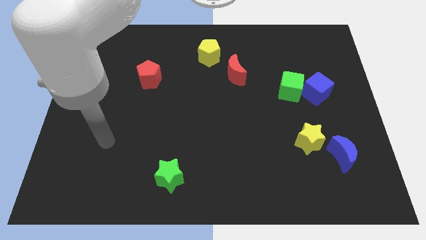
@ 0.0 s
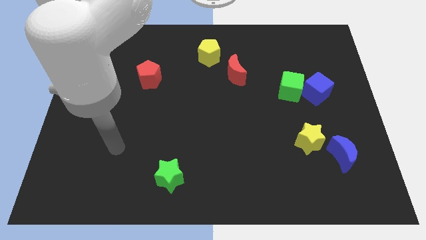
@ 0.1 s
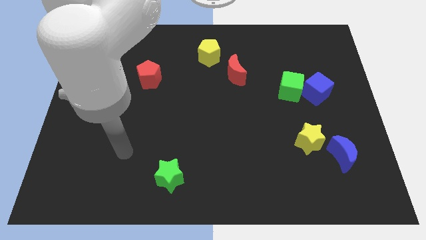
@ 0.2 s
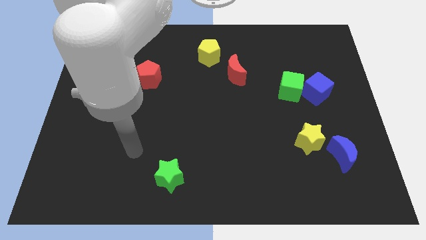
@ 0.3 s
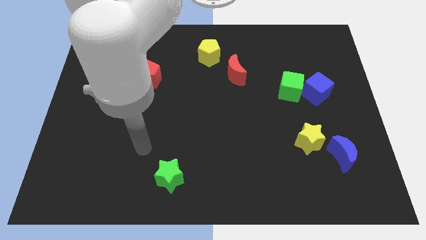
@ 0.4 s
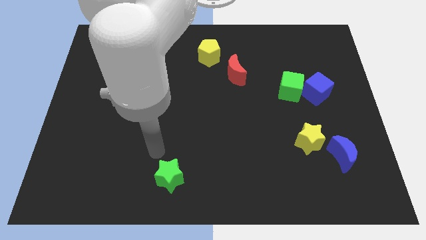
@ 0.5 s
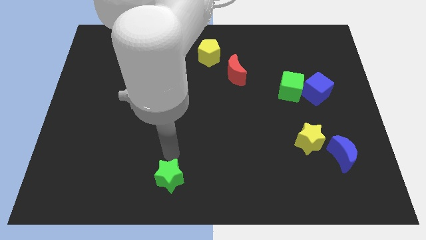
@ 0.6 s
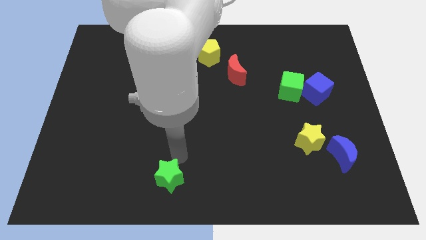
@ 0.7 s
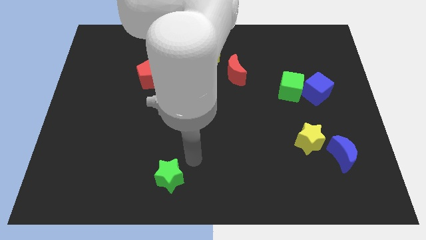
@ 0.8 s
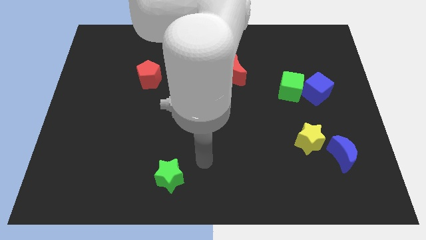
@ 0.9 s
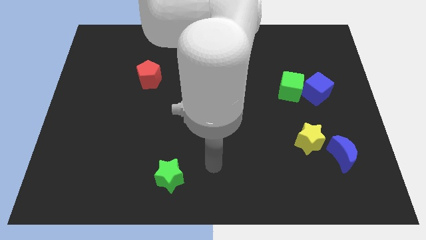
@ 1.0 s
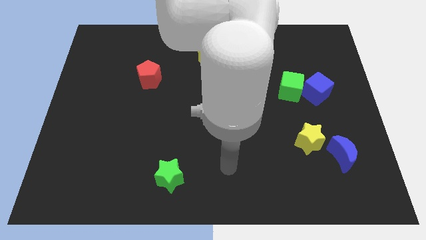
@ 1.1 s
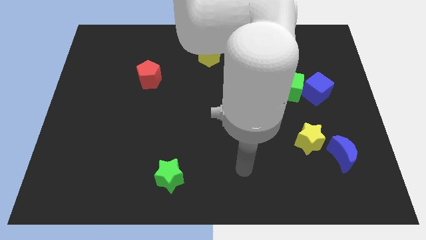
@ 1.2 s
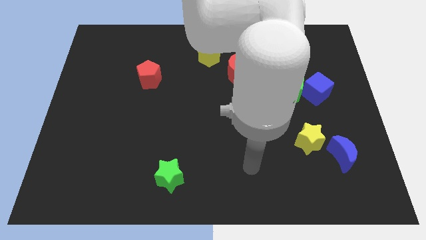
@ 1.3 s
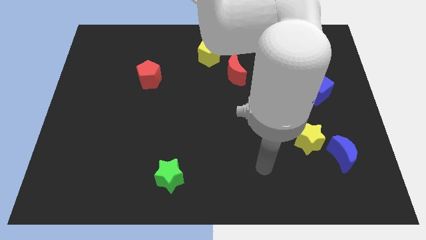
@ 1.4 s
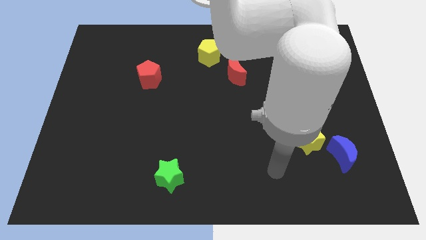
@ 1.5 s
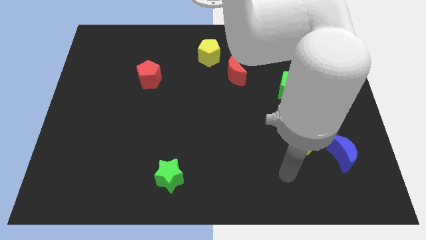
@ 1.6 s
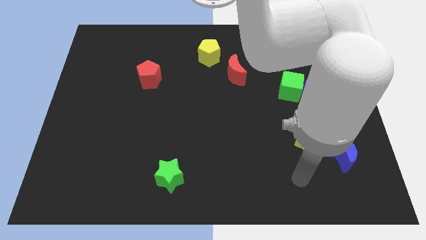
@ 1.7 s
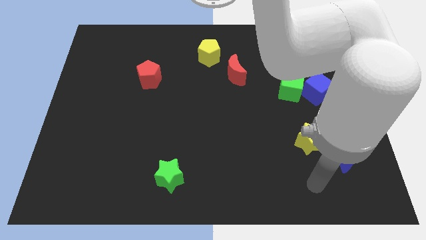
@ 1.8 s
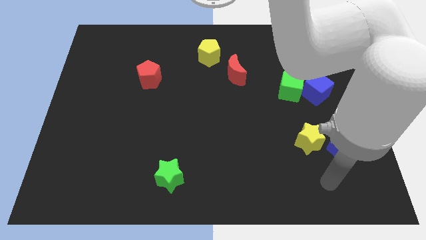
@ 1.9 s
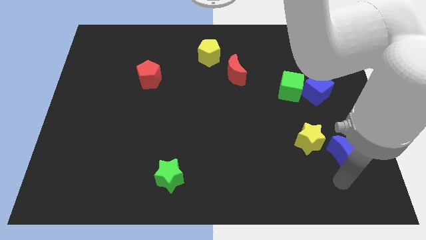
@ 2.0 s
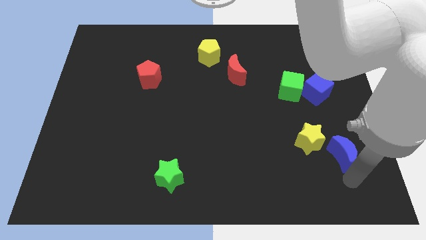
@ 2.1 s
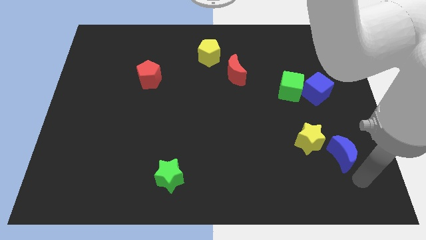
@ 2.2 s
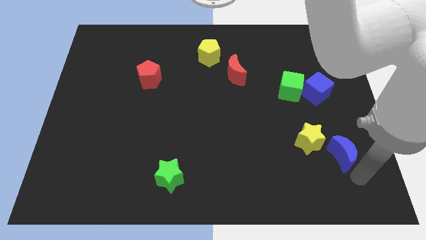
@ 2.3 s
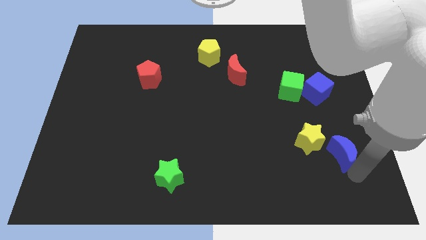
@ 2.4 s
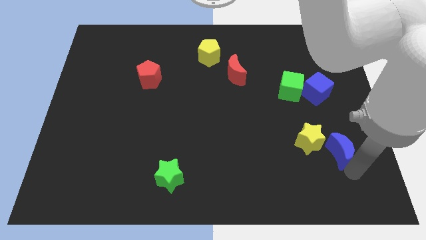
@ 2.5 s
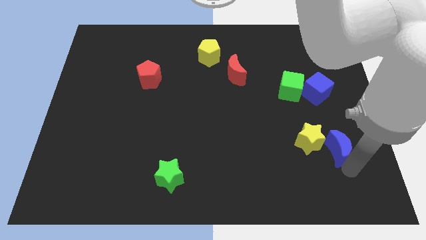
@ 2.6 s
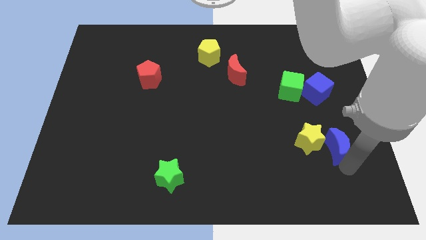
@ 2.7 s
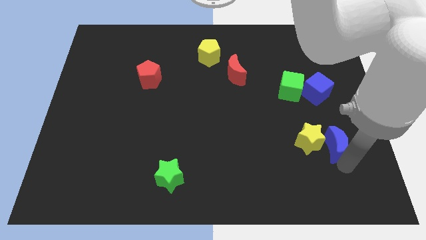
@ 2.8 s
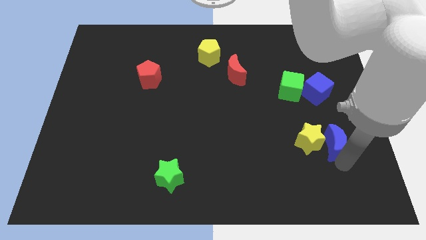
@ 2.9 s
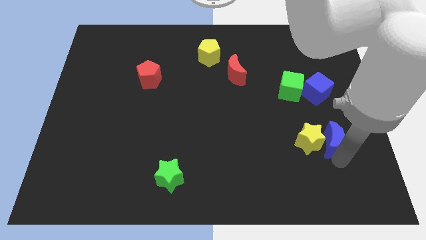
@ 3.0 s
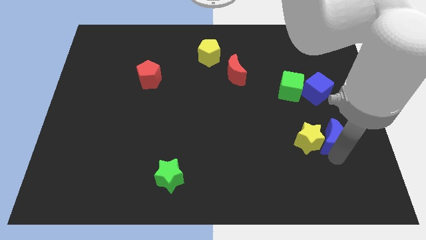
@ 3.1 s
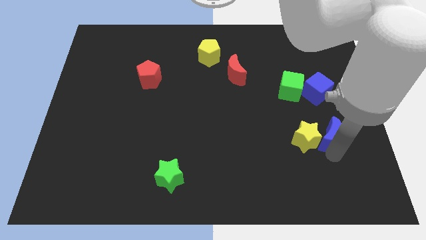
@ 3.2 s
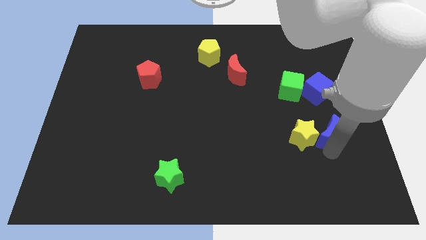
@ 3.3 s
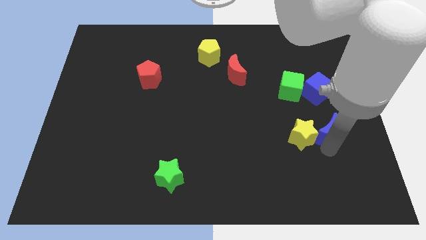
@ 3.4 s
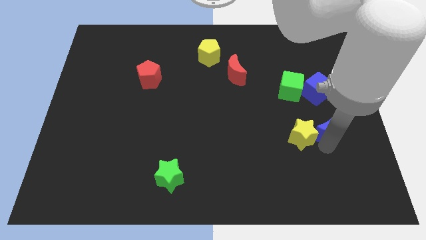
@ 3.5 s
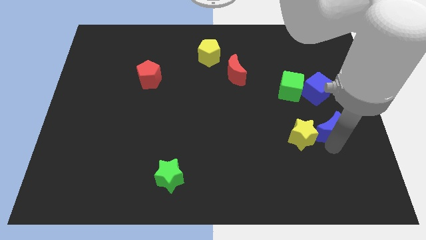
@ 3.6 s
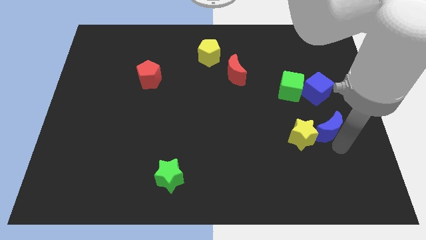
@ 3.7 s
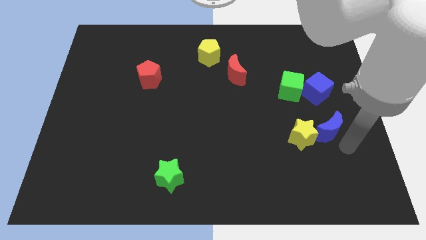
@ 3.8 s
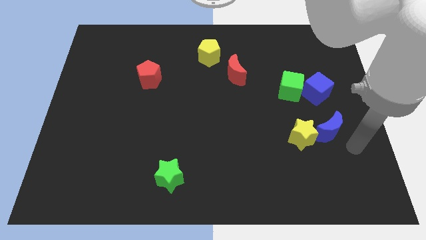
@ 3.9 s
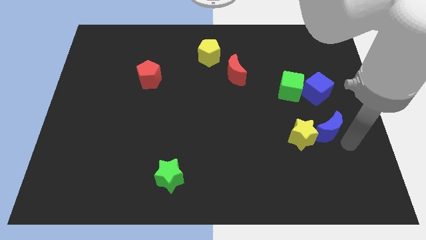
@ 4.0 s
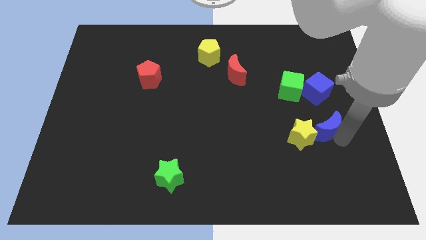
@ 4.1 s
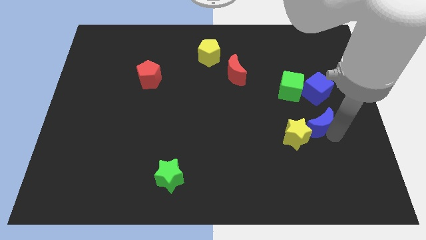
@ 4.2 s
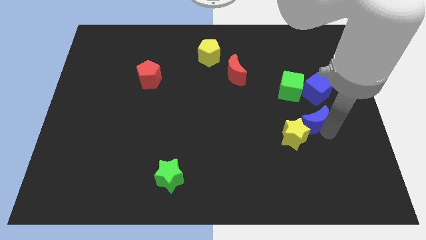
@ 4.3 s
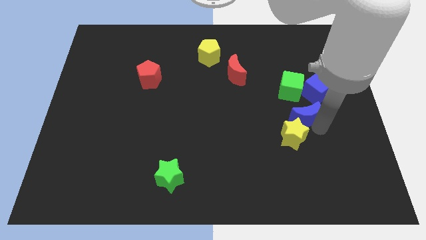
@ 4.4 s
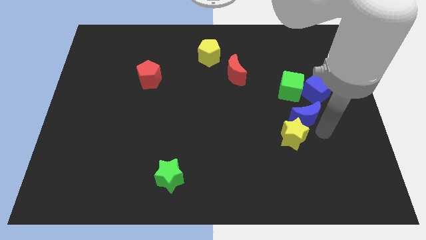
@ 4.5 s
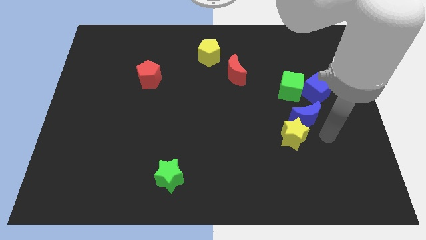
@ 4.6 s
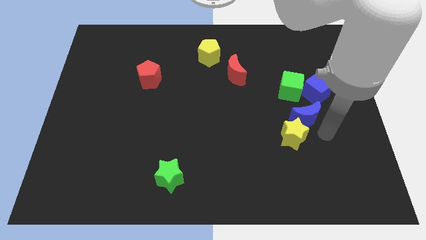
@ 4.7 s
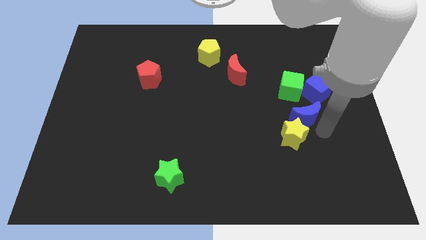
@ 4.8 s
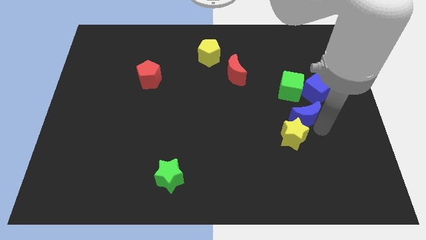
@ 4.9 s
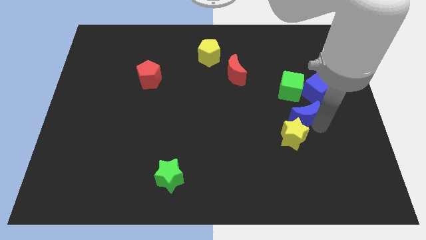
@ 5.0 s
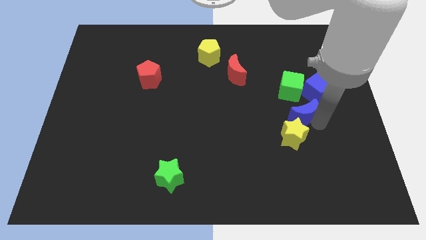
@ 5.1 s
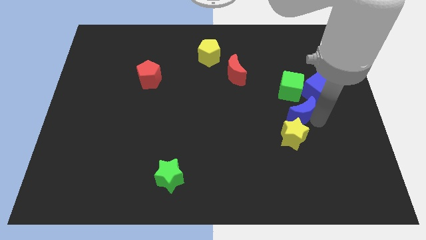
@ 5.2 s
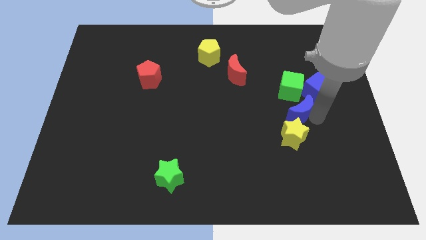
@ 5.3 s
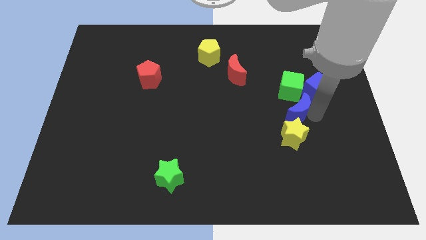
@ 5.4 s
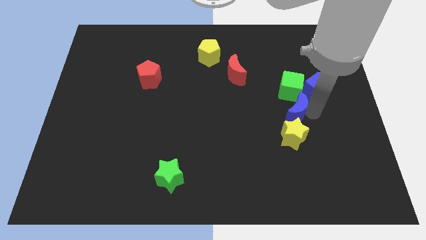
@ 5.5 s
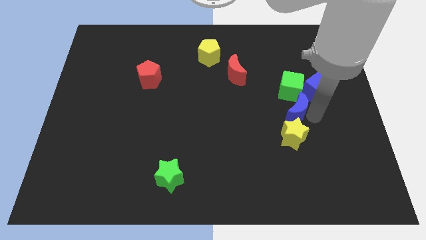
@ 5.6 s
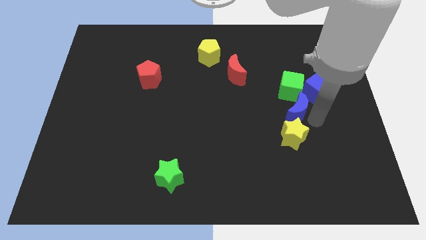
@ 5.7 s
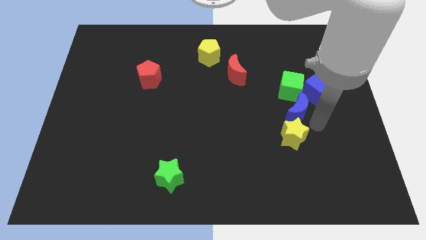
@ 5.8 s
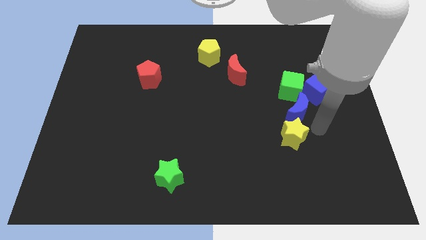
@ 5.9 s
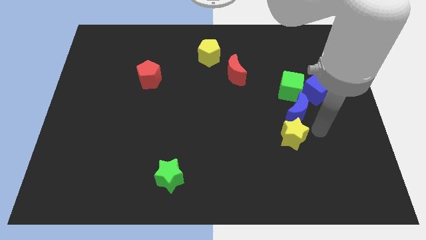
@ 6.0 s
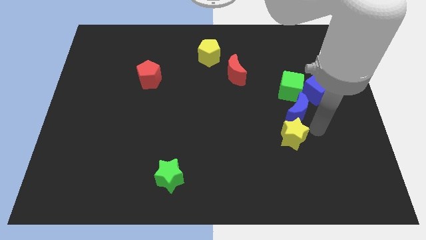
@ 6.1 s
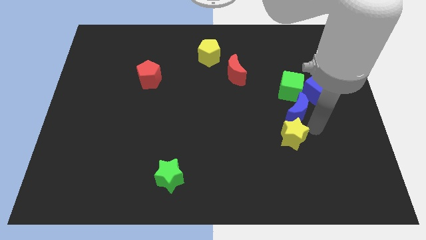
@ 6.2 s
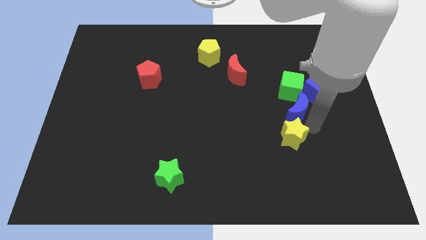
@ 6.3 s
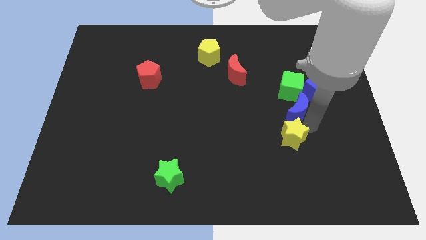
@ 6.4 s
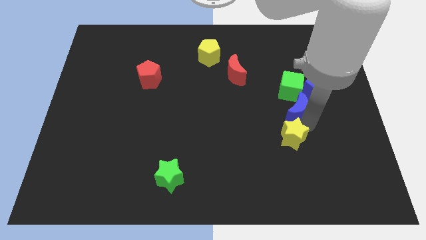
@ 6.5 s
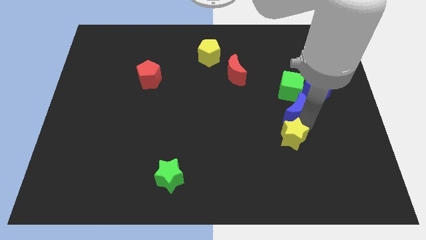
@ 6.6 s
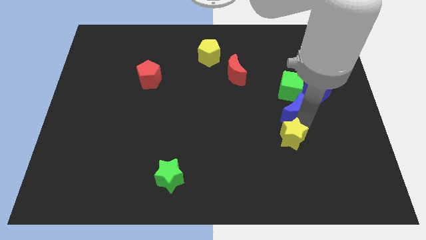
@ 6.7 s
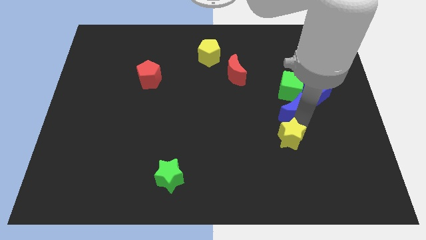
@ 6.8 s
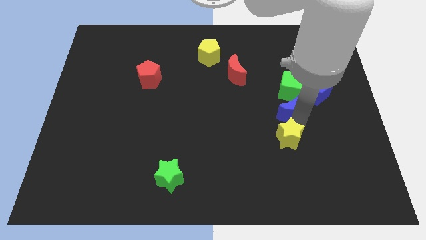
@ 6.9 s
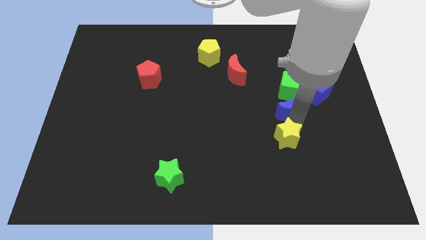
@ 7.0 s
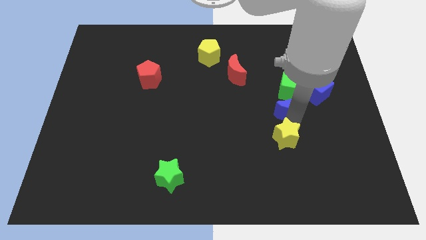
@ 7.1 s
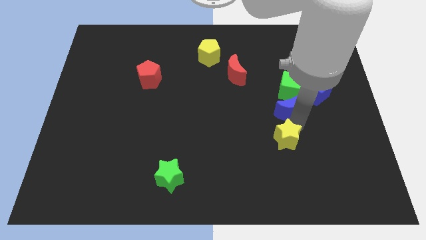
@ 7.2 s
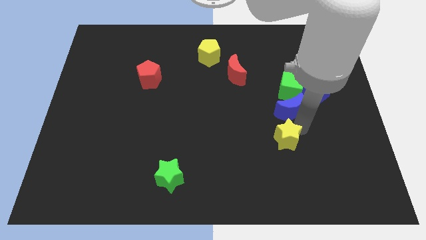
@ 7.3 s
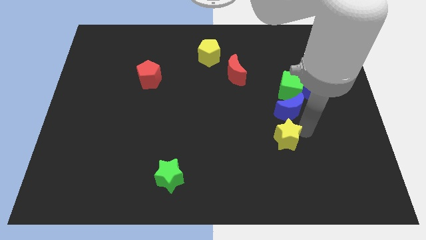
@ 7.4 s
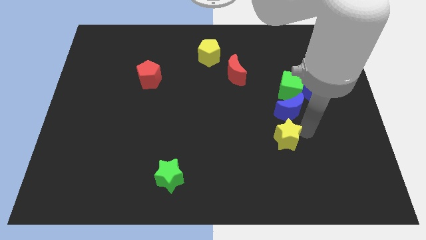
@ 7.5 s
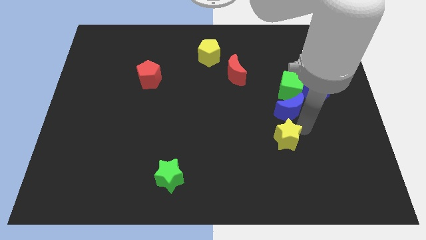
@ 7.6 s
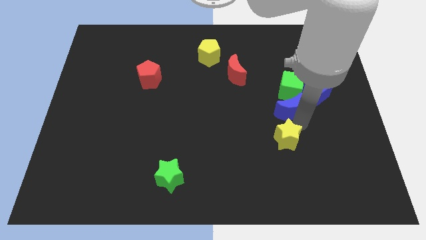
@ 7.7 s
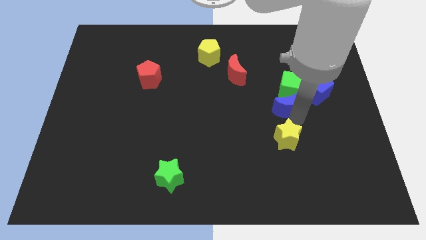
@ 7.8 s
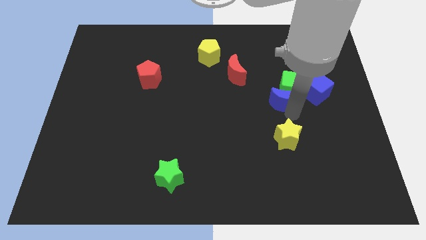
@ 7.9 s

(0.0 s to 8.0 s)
slide the blue moon to the left of the blue cube
